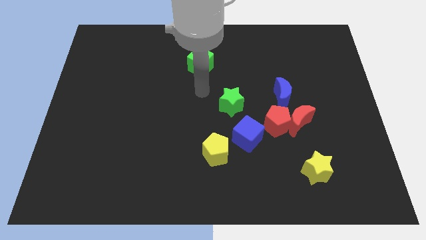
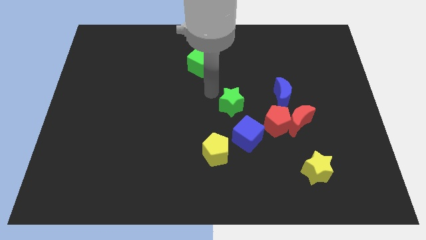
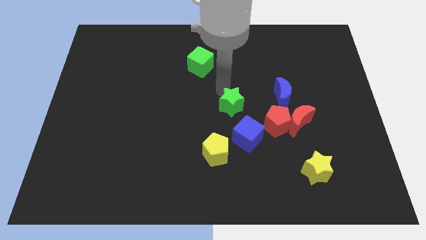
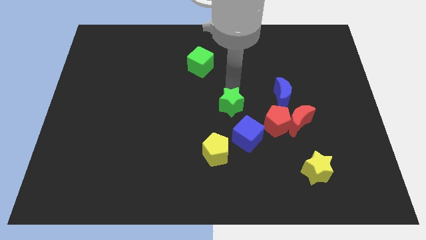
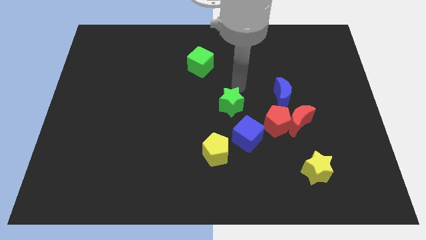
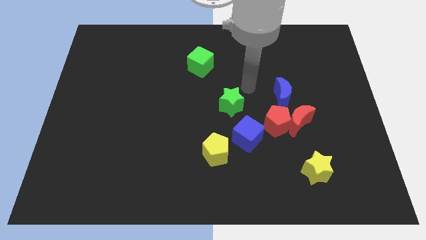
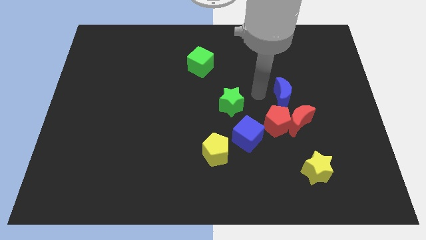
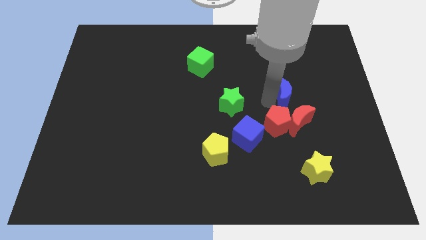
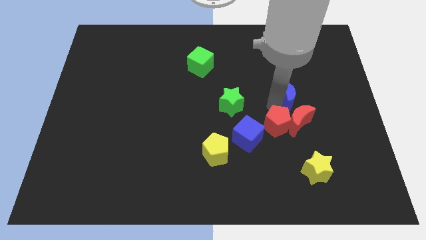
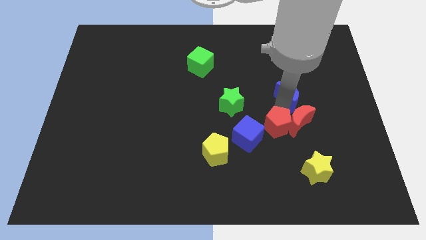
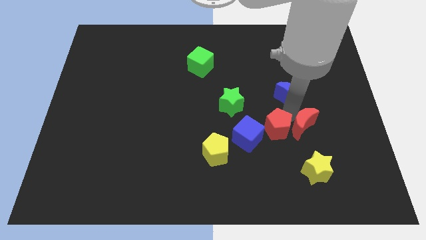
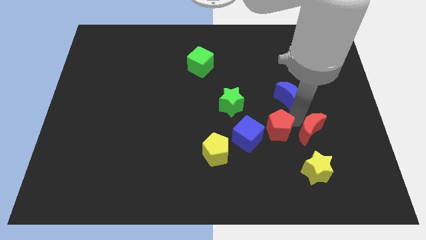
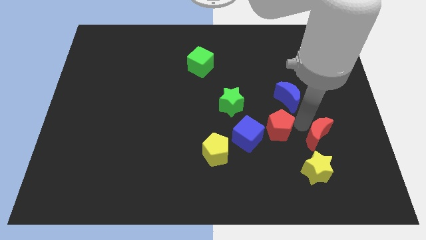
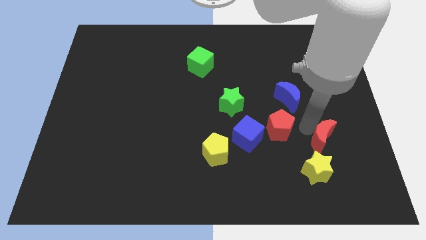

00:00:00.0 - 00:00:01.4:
pull the red moon apart from the red pentagon and blue moon

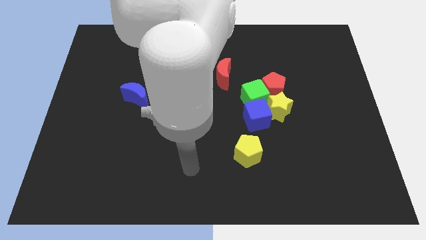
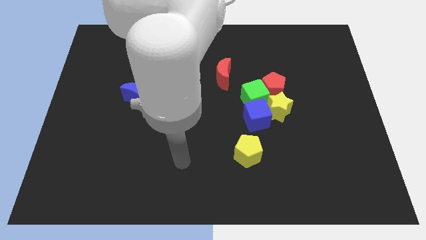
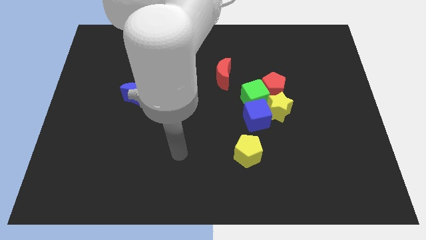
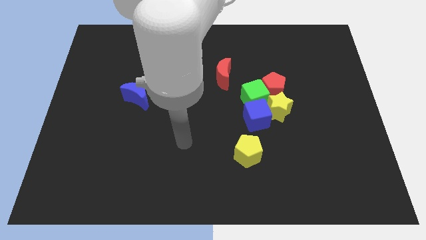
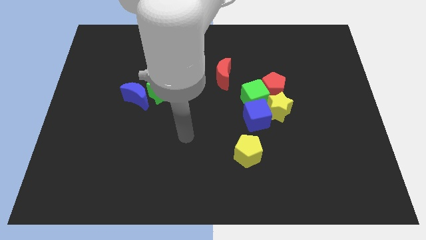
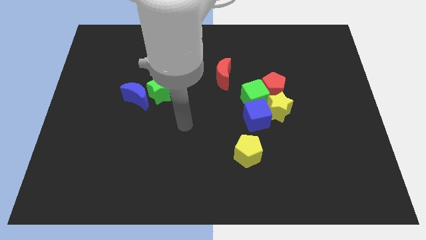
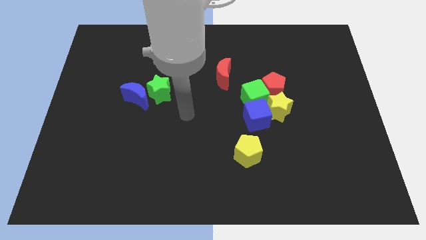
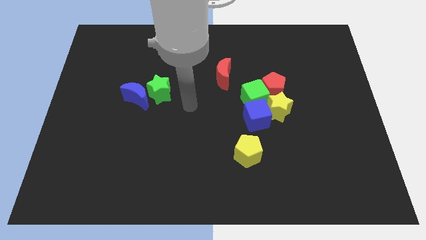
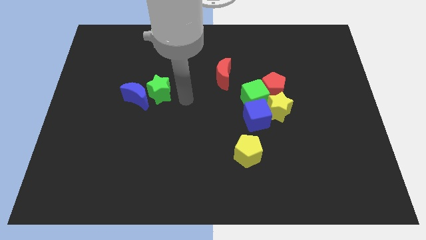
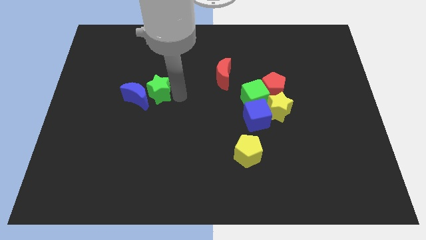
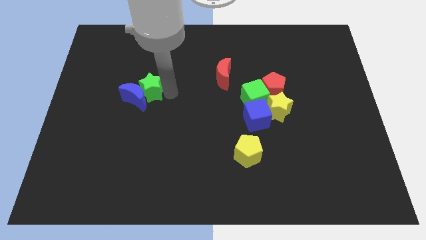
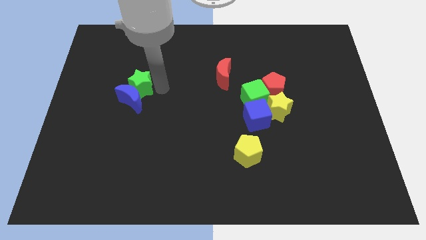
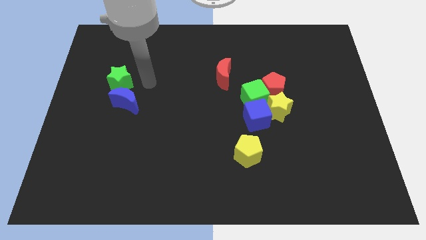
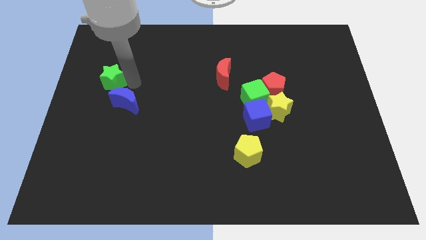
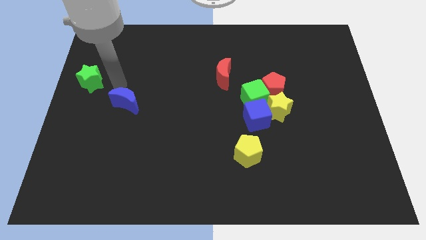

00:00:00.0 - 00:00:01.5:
separate the blue moon from the green star

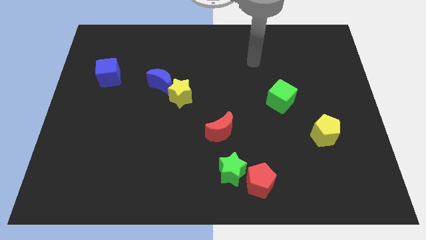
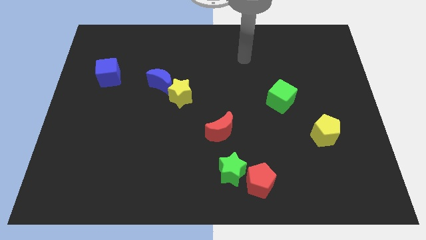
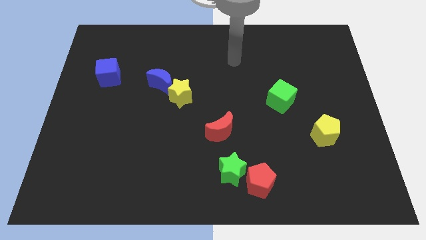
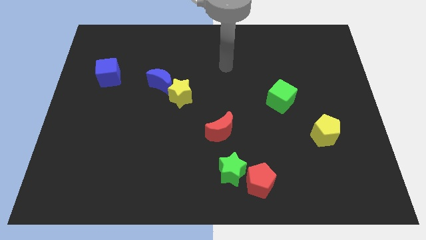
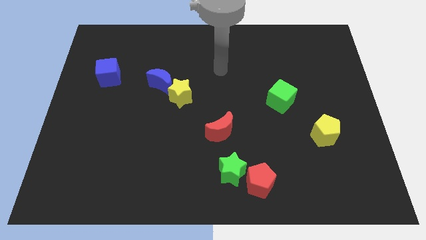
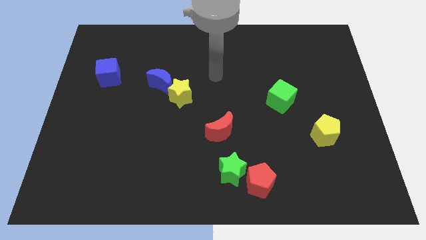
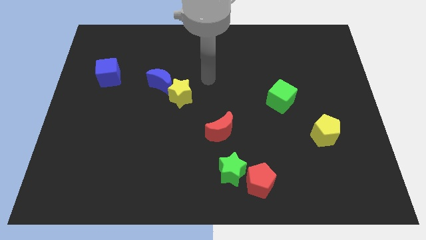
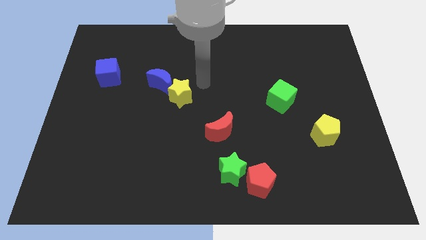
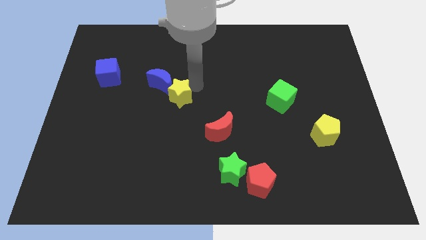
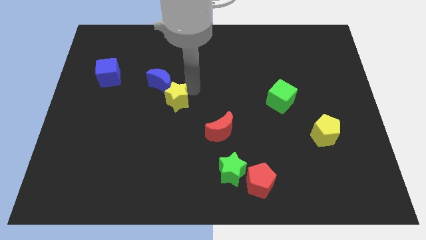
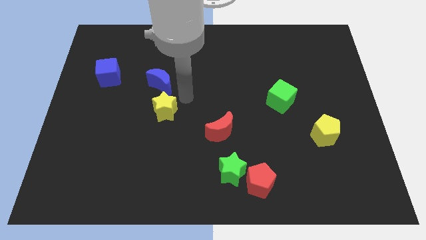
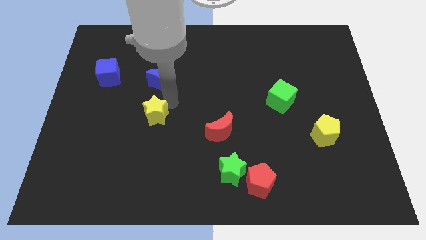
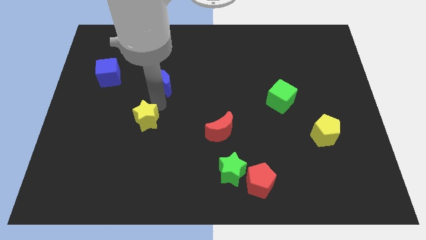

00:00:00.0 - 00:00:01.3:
pull the blue moon apart from the yellow star

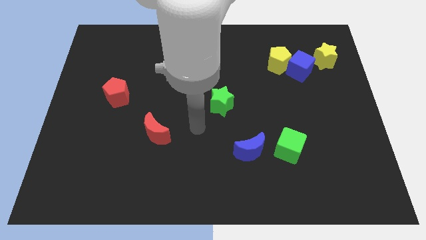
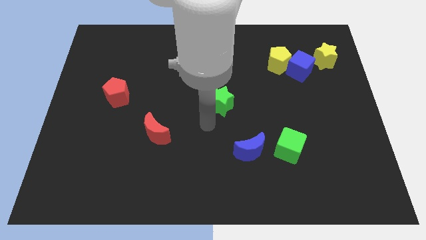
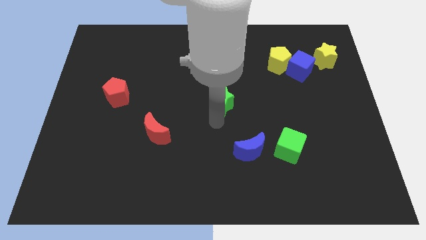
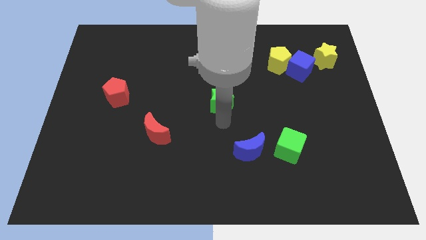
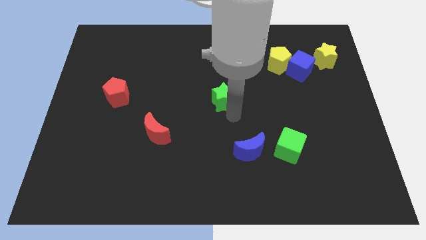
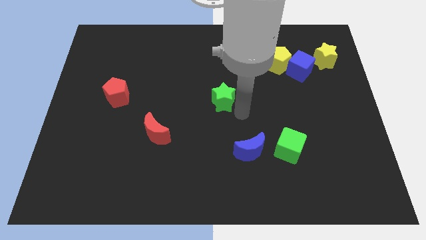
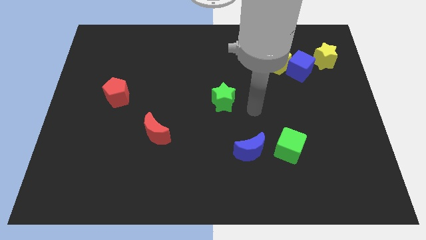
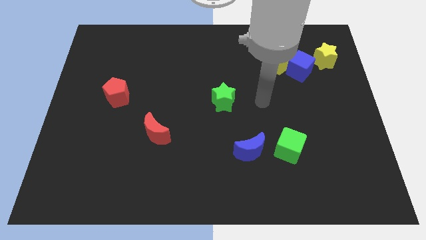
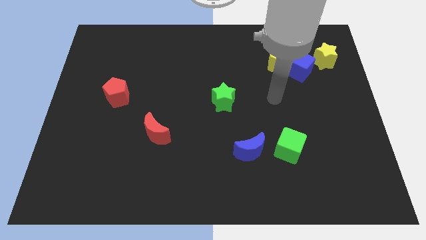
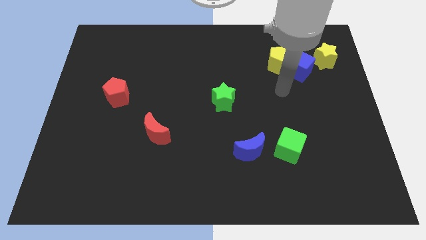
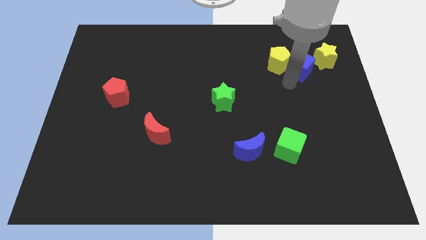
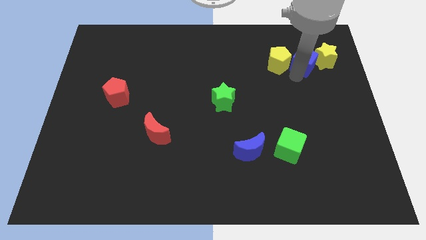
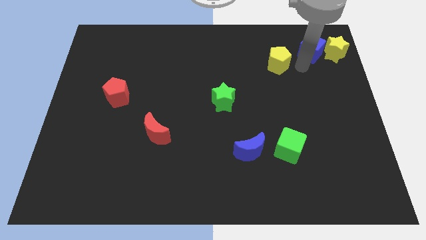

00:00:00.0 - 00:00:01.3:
pull the yellow pentagon apart from the blue cube

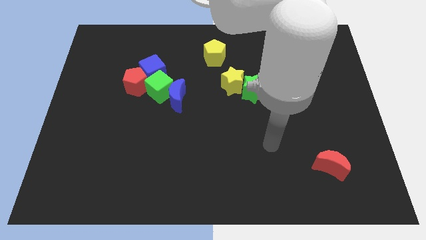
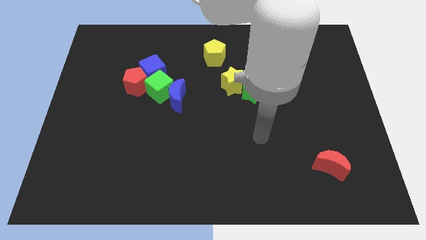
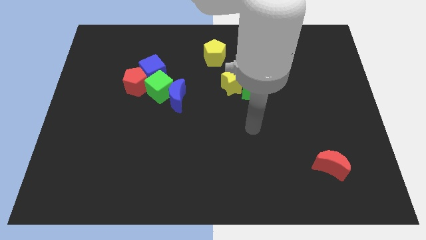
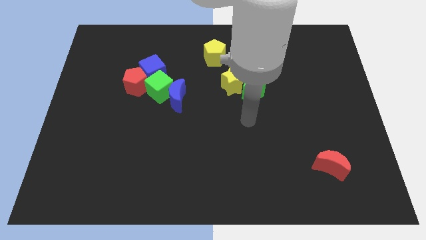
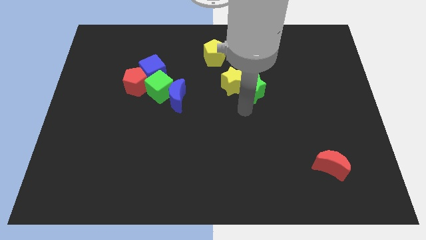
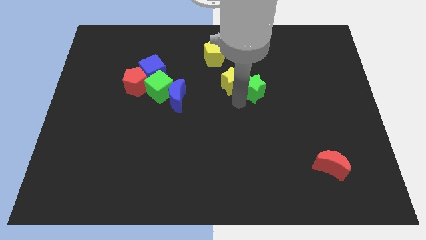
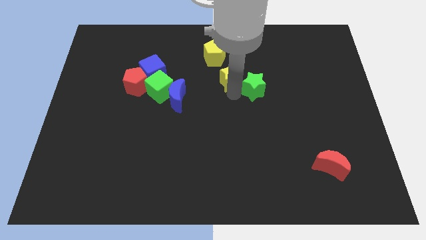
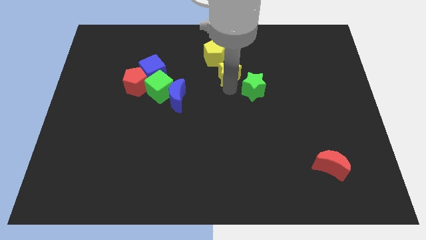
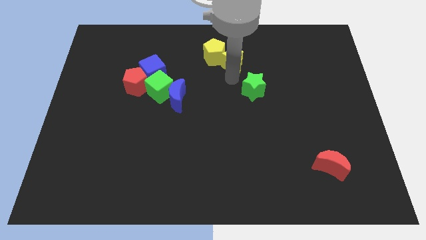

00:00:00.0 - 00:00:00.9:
move the green star away from the yellow star

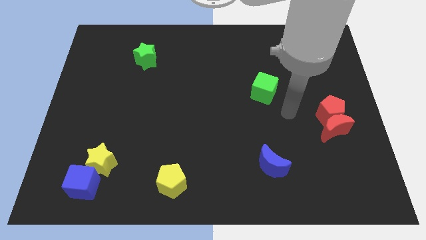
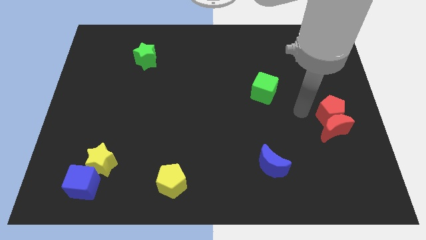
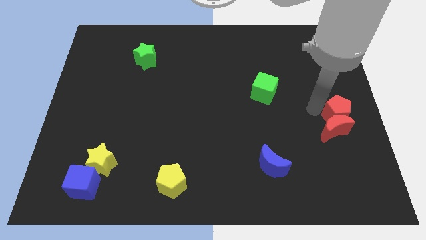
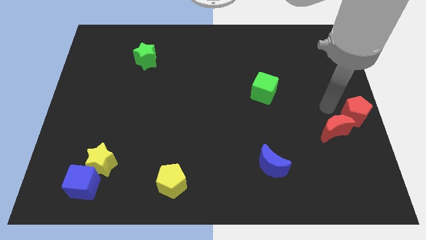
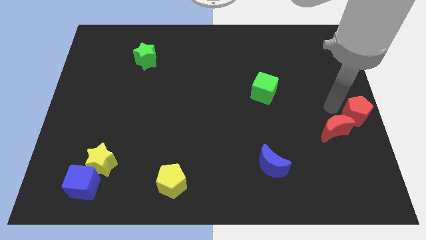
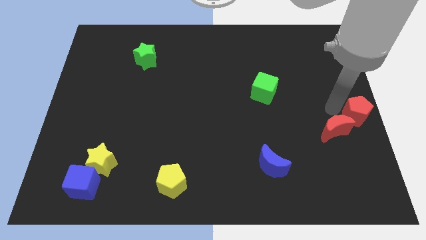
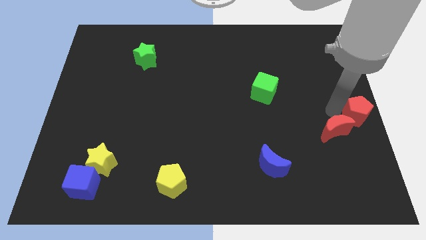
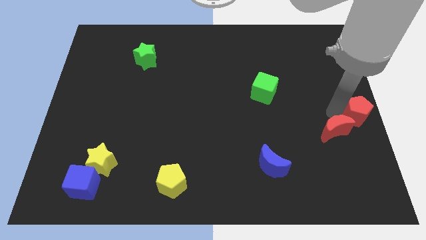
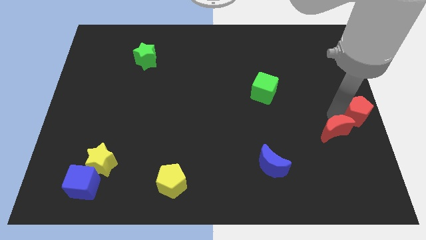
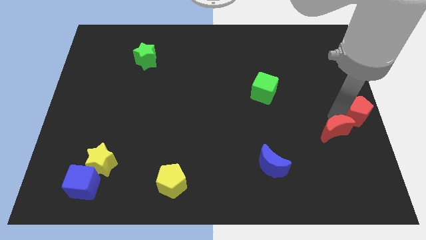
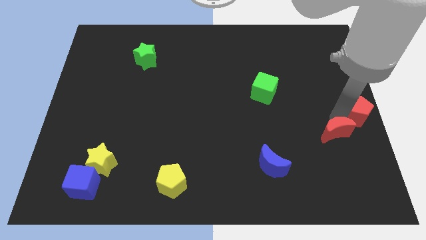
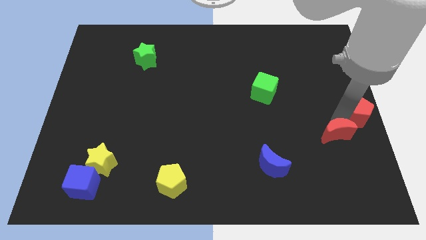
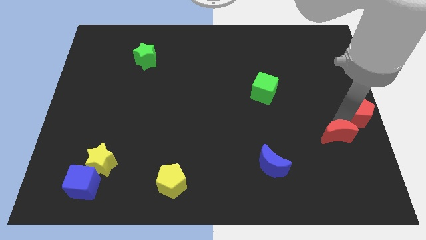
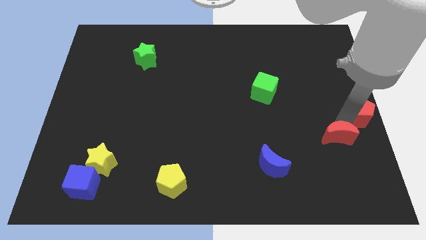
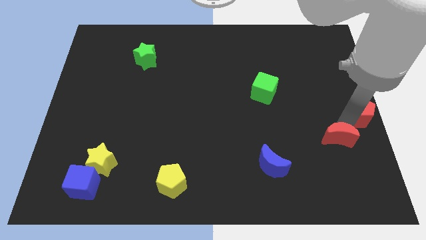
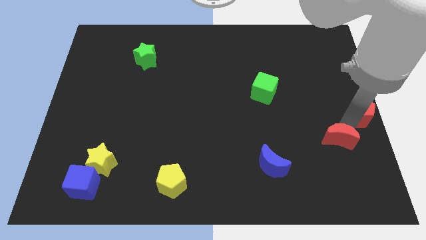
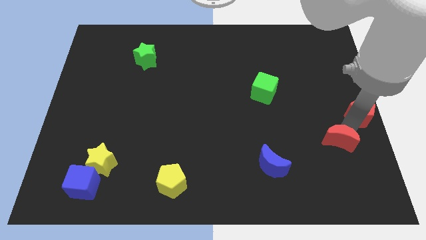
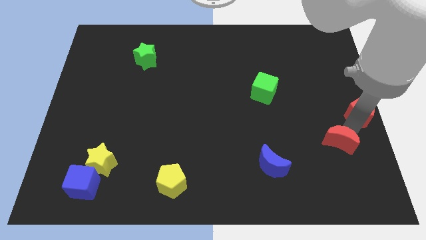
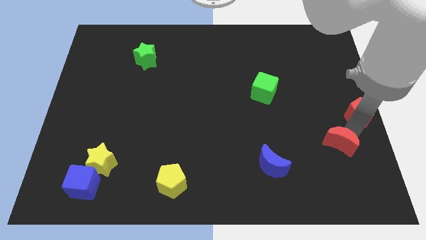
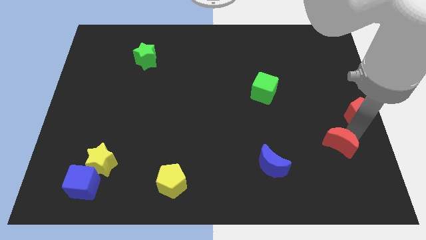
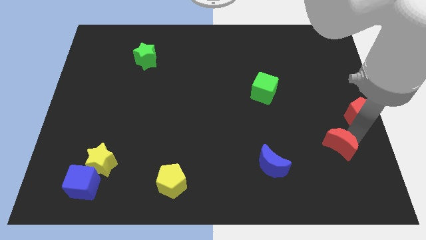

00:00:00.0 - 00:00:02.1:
move the red moon away from the red pentagon

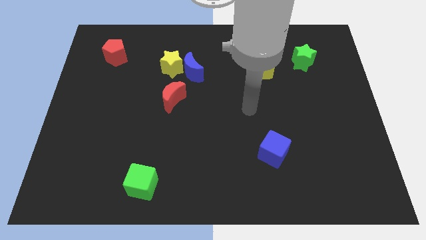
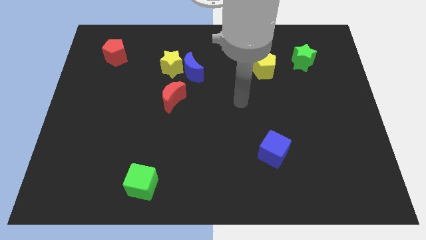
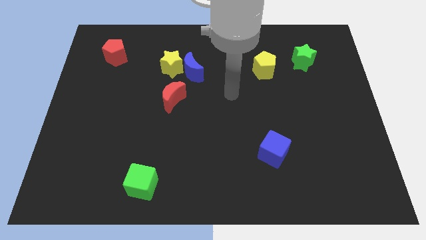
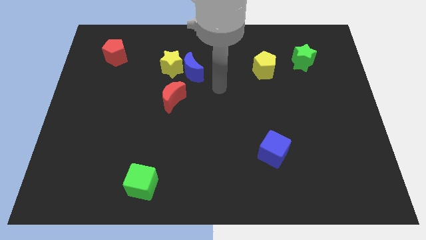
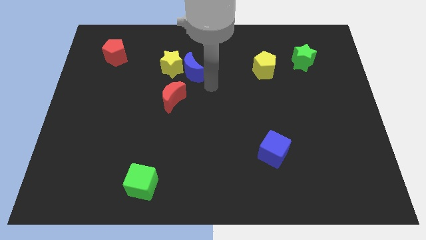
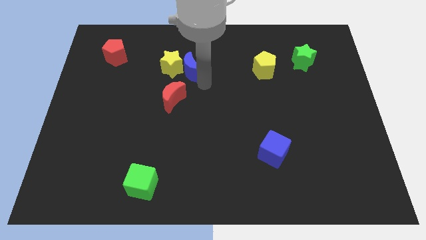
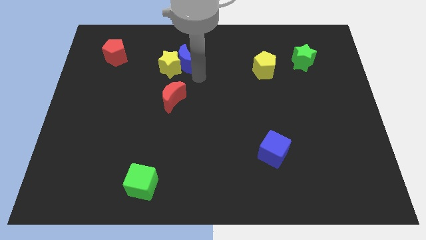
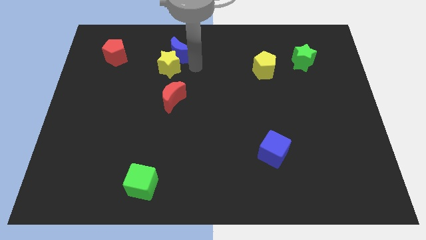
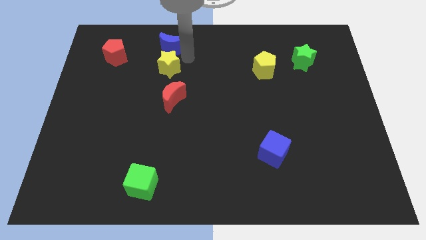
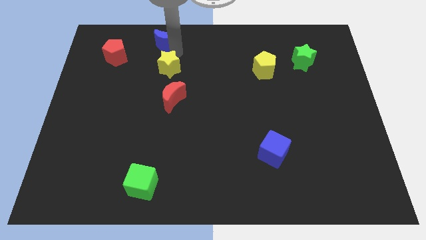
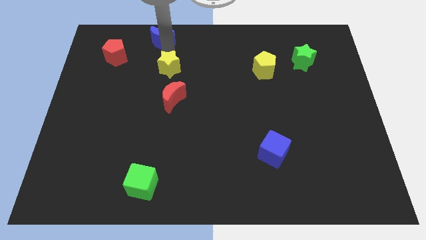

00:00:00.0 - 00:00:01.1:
move the yellow star away from the blue moon
